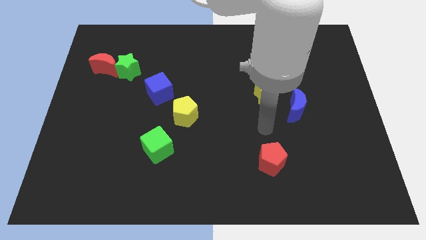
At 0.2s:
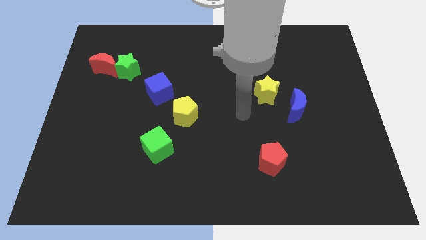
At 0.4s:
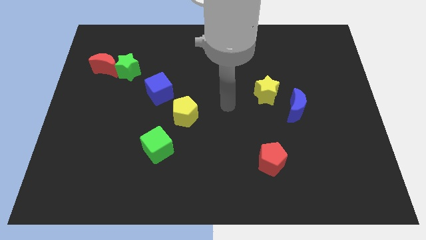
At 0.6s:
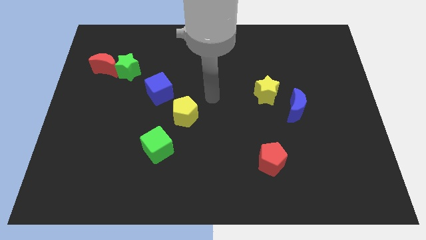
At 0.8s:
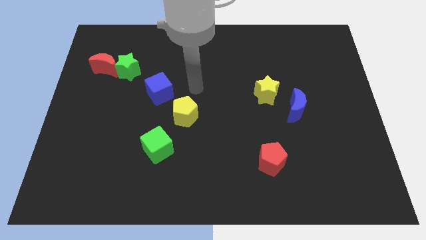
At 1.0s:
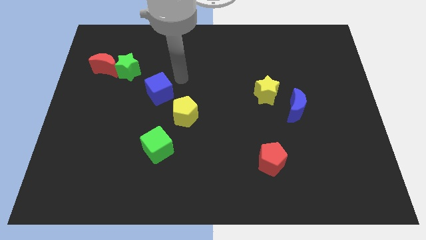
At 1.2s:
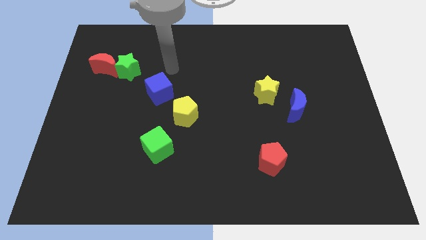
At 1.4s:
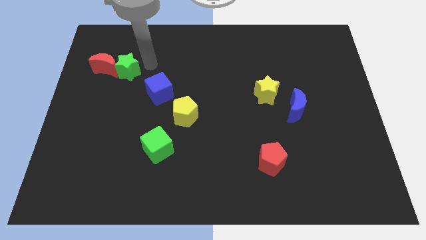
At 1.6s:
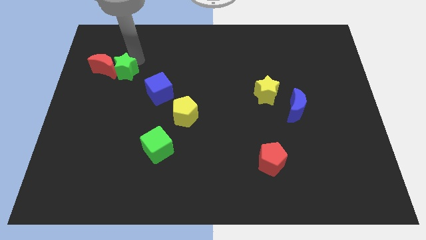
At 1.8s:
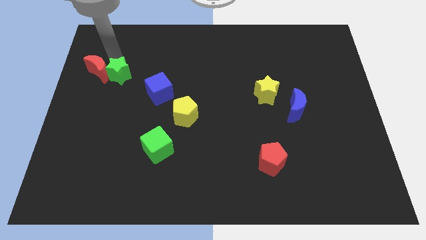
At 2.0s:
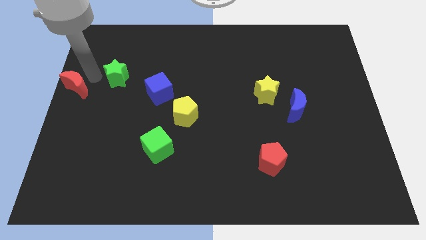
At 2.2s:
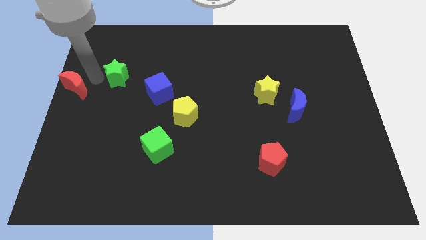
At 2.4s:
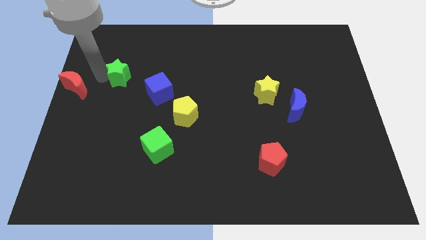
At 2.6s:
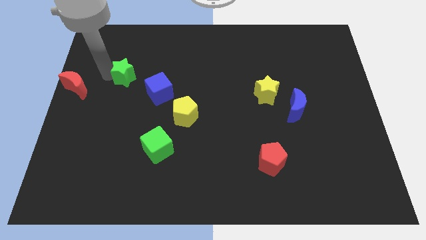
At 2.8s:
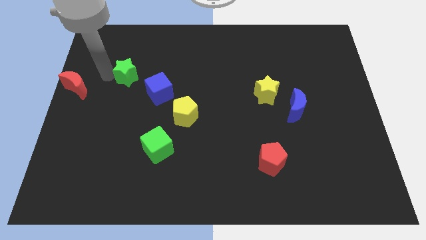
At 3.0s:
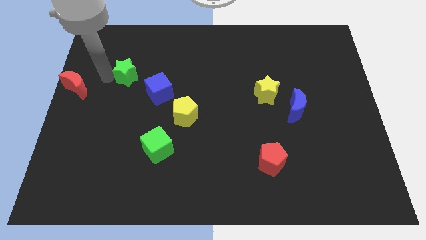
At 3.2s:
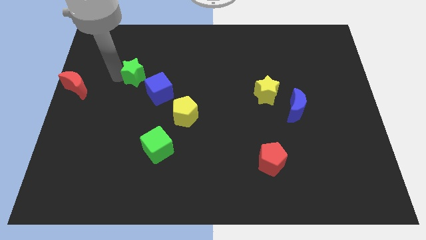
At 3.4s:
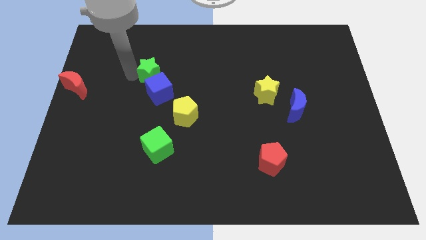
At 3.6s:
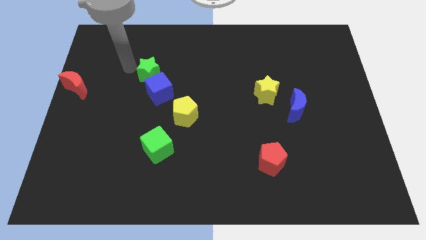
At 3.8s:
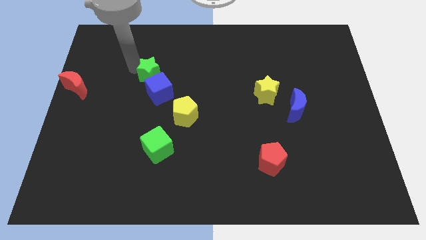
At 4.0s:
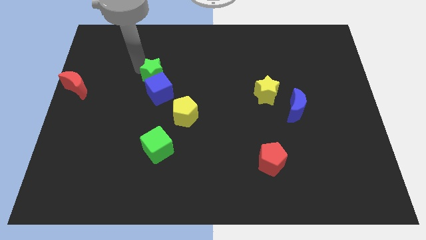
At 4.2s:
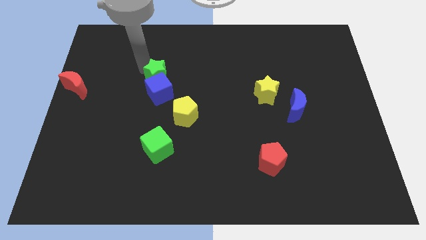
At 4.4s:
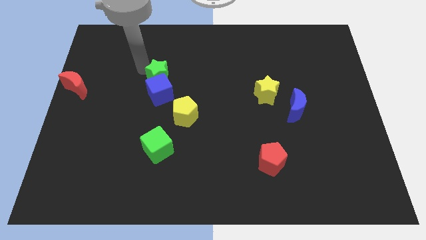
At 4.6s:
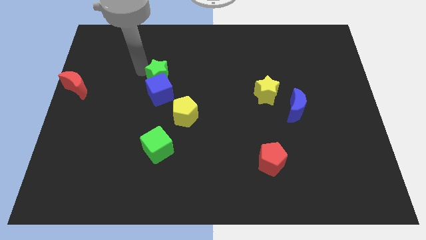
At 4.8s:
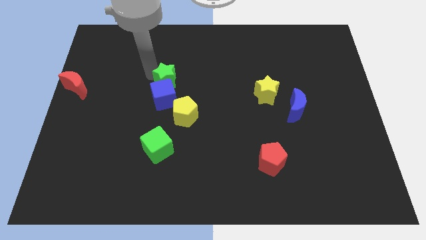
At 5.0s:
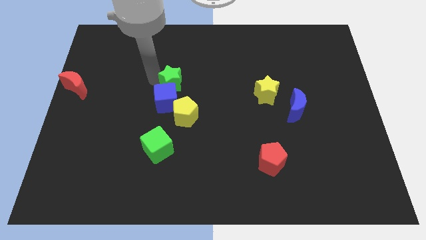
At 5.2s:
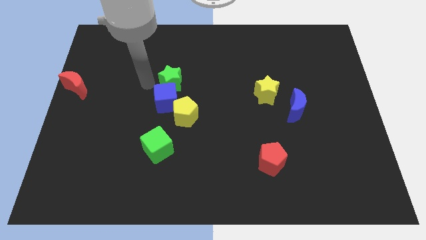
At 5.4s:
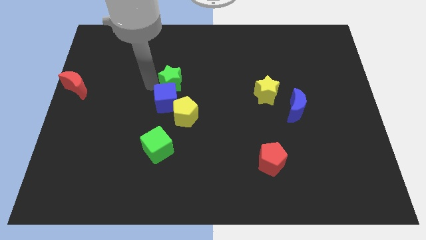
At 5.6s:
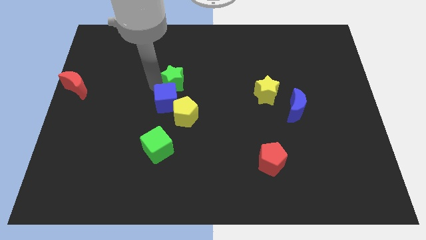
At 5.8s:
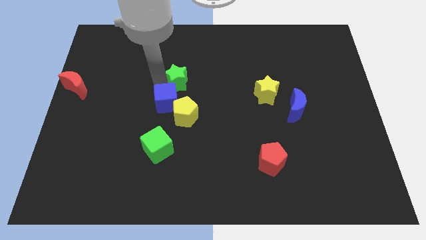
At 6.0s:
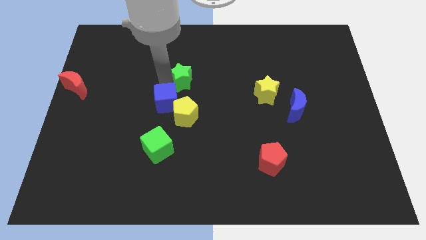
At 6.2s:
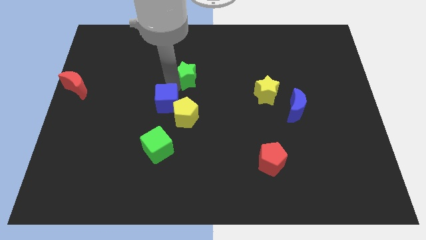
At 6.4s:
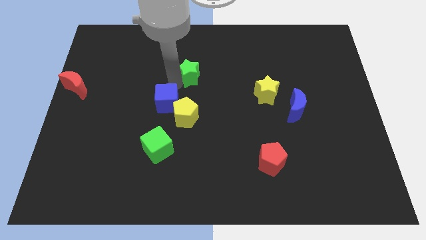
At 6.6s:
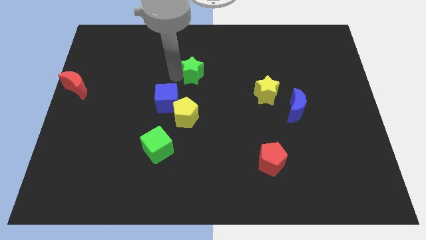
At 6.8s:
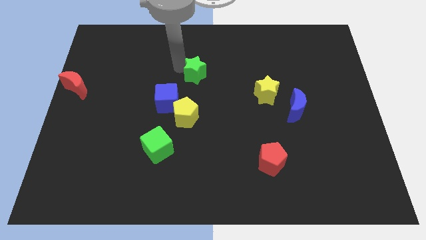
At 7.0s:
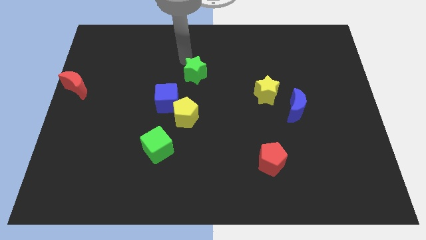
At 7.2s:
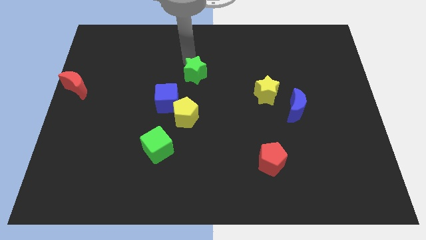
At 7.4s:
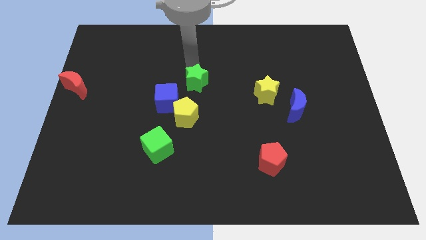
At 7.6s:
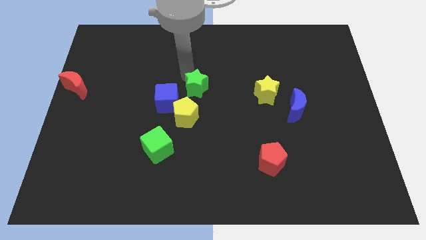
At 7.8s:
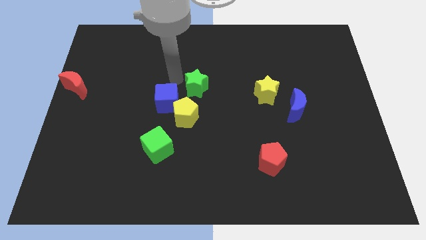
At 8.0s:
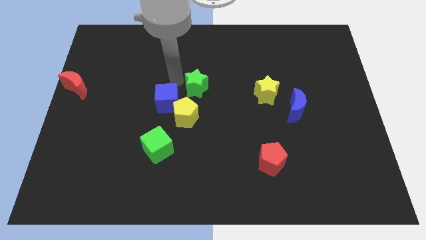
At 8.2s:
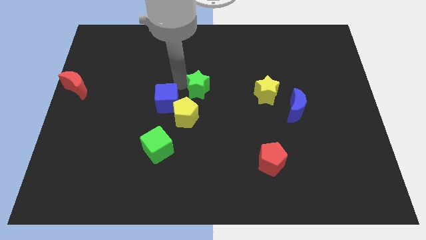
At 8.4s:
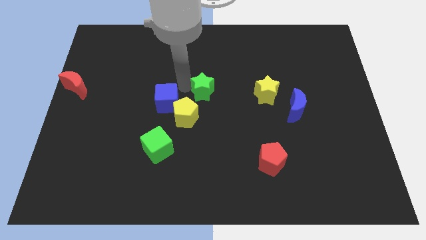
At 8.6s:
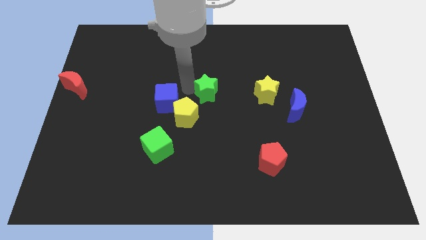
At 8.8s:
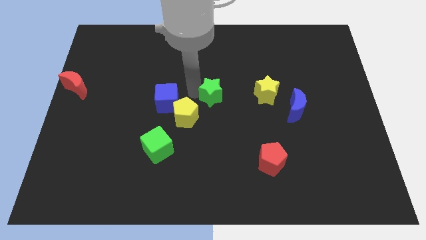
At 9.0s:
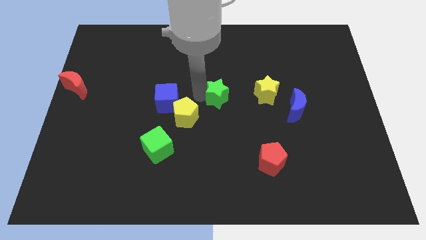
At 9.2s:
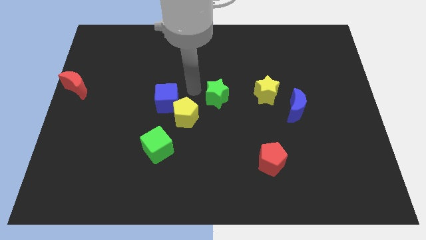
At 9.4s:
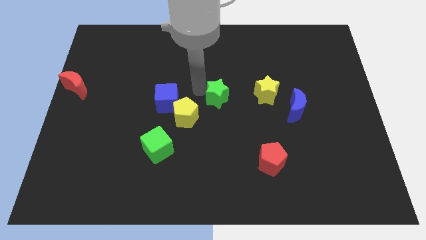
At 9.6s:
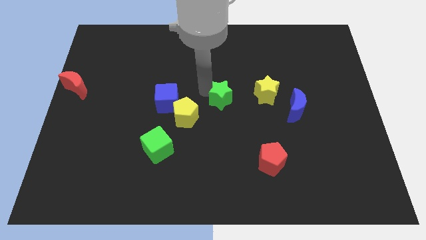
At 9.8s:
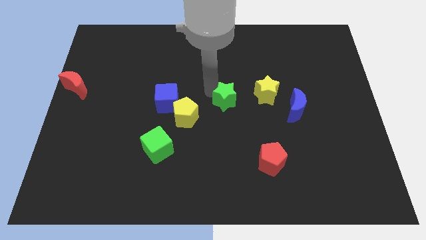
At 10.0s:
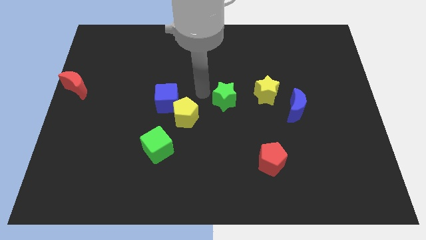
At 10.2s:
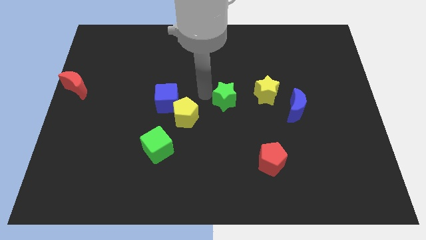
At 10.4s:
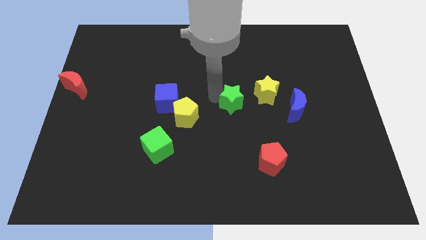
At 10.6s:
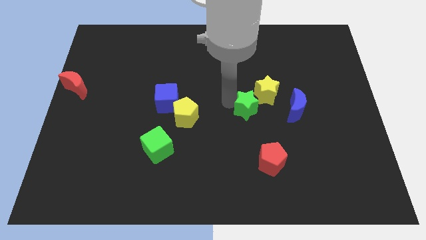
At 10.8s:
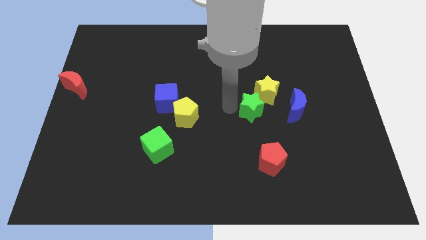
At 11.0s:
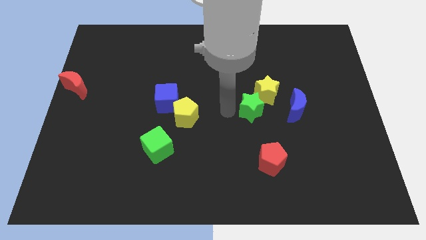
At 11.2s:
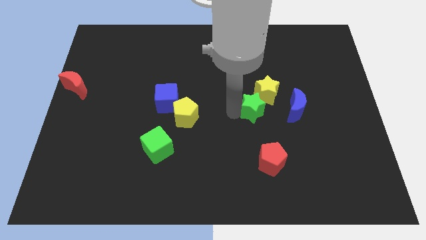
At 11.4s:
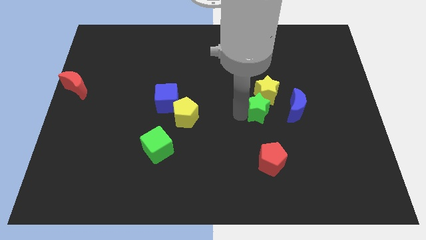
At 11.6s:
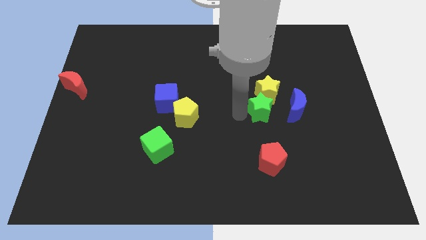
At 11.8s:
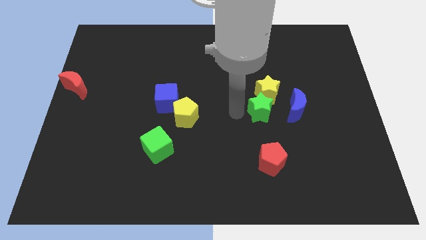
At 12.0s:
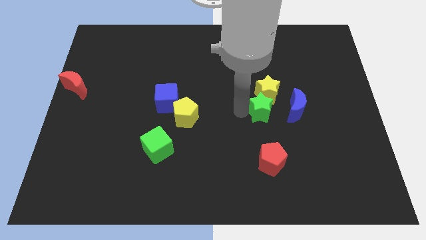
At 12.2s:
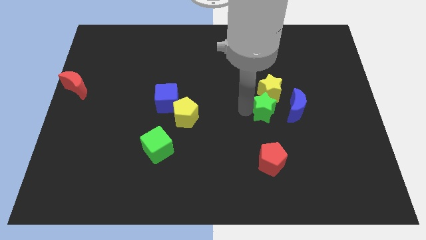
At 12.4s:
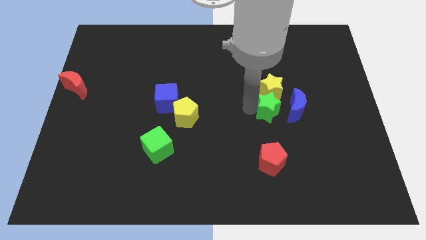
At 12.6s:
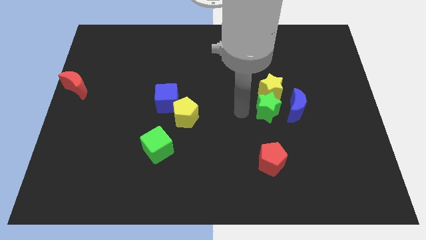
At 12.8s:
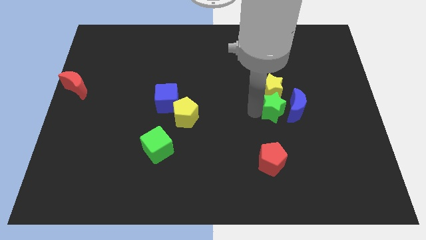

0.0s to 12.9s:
push the green star close to the blue moon
